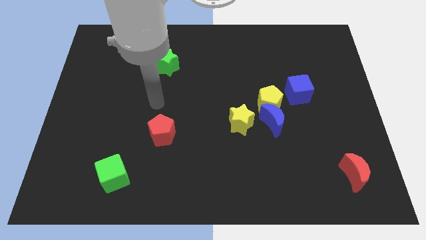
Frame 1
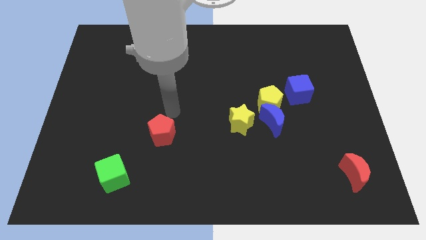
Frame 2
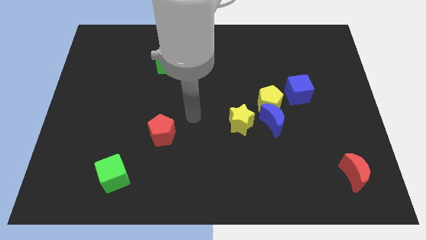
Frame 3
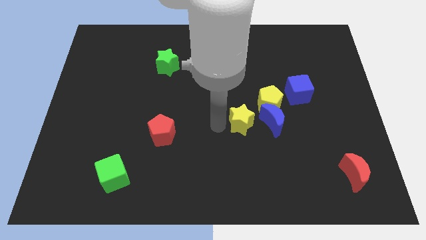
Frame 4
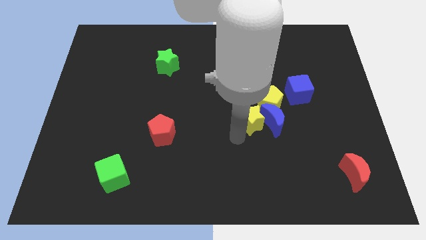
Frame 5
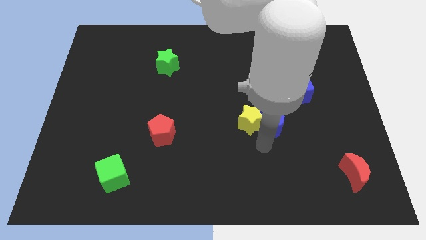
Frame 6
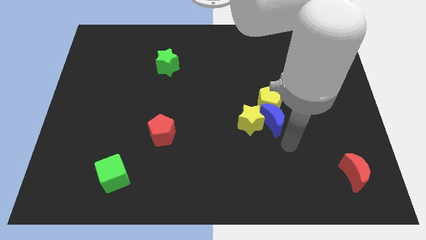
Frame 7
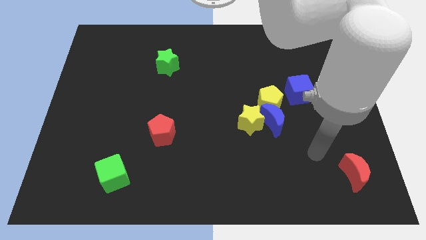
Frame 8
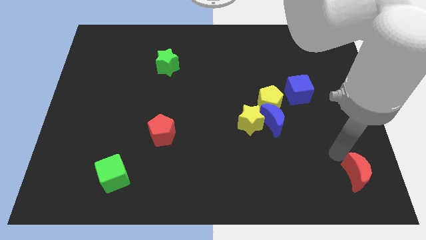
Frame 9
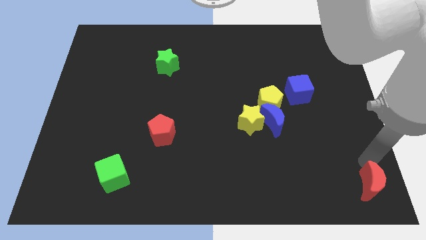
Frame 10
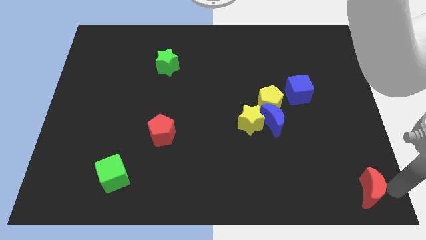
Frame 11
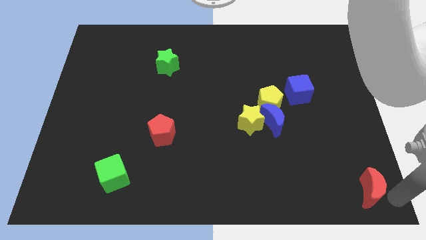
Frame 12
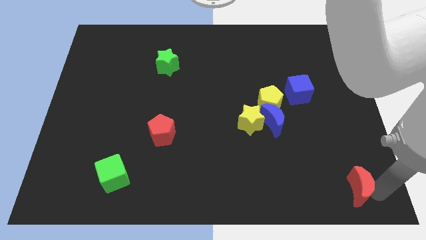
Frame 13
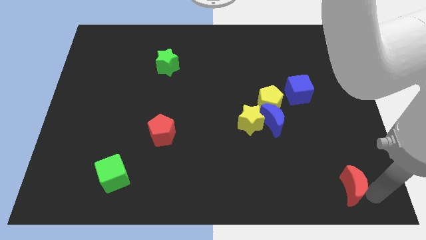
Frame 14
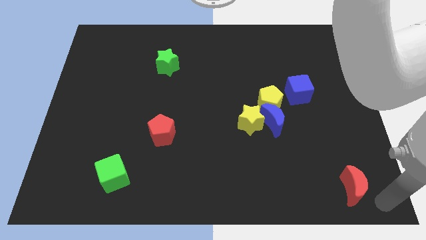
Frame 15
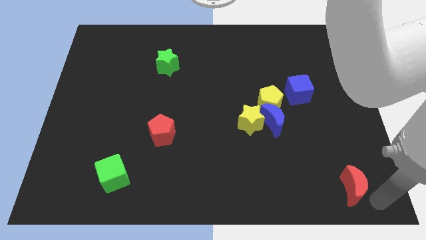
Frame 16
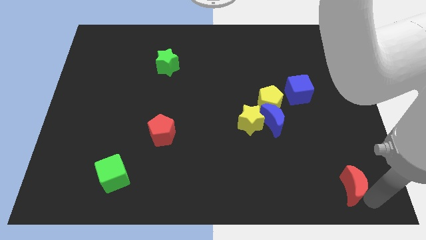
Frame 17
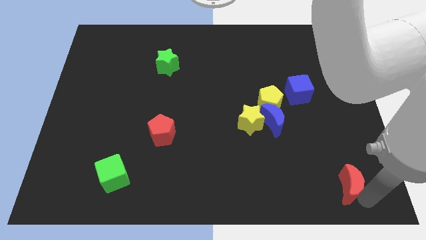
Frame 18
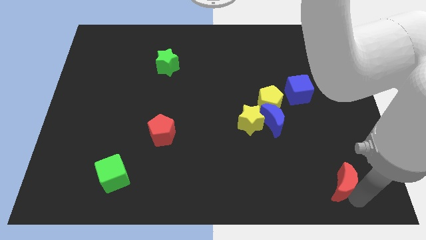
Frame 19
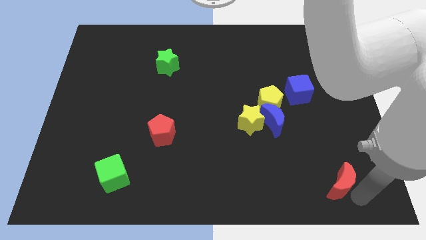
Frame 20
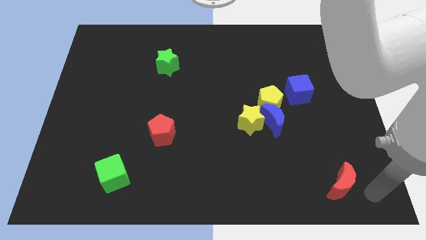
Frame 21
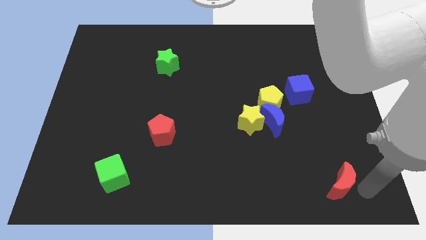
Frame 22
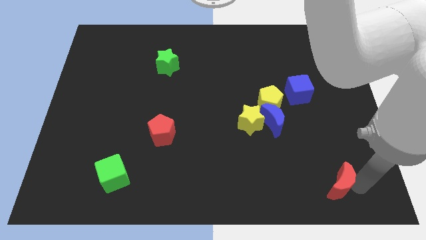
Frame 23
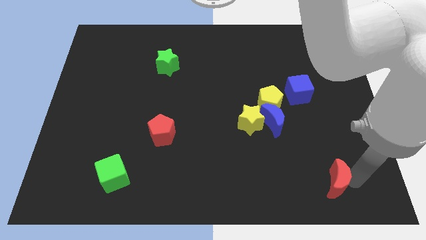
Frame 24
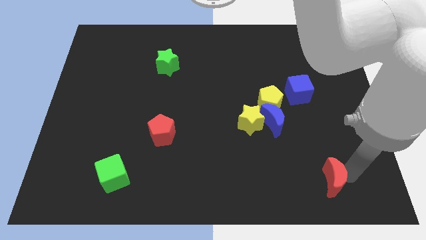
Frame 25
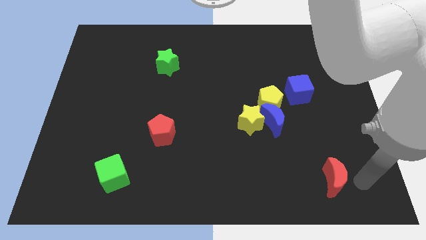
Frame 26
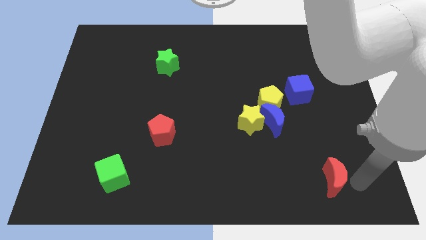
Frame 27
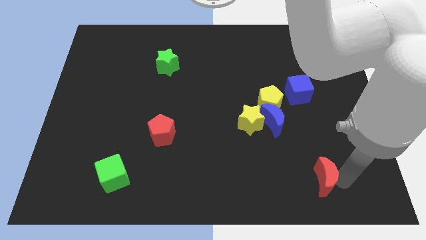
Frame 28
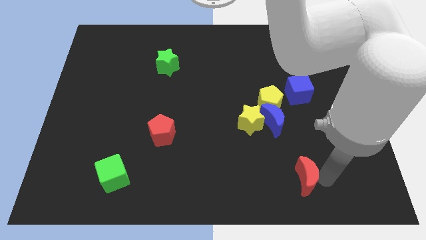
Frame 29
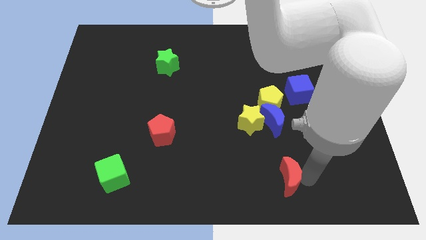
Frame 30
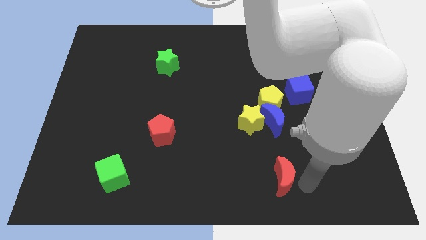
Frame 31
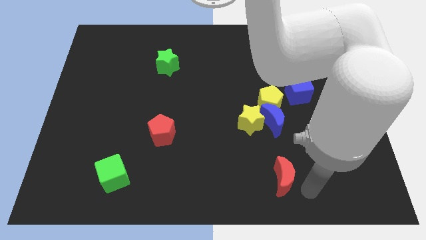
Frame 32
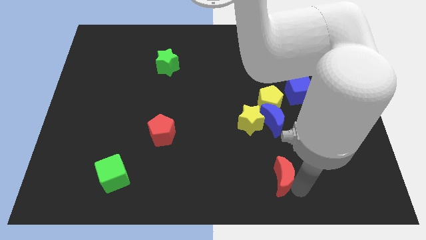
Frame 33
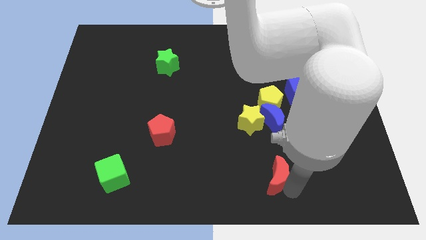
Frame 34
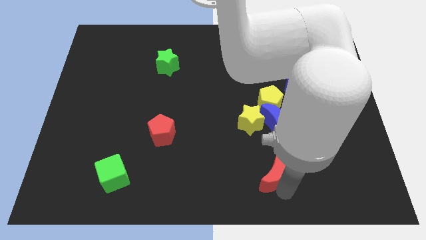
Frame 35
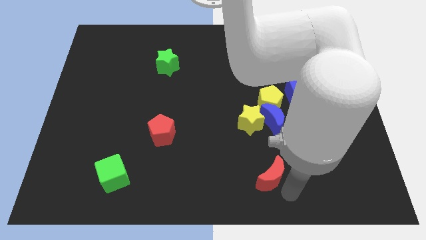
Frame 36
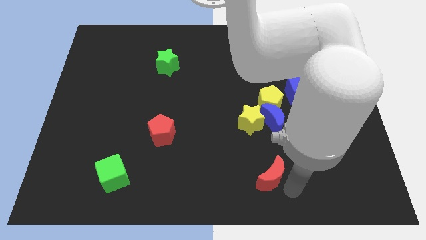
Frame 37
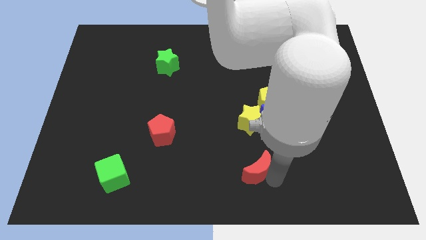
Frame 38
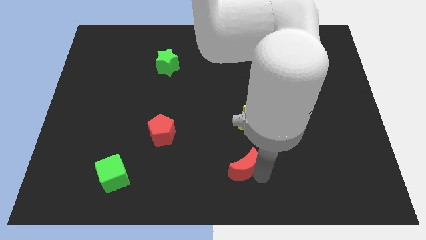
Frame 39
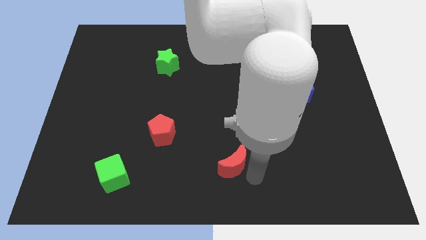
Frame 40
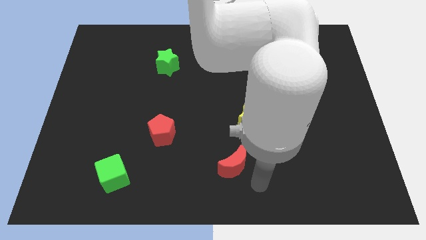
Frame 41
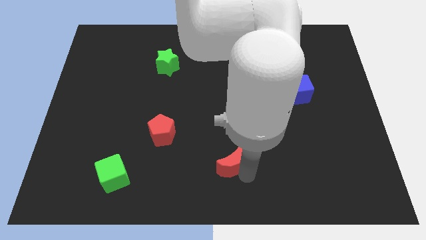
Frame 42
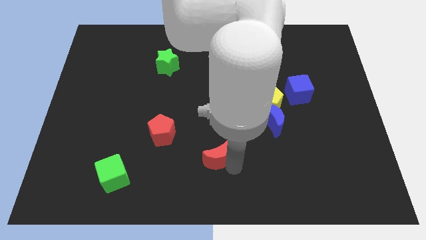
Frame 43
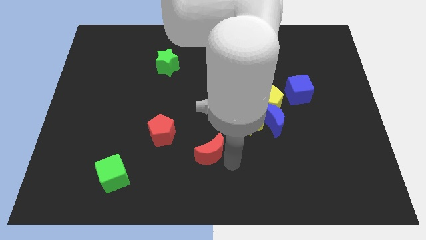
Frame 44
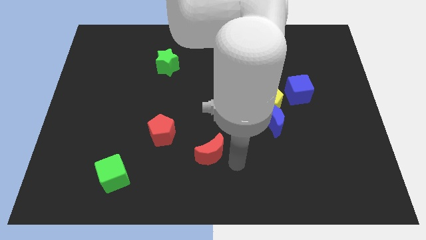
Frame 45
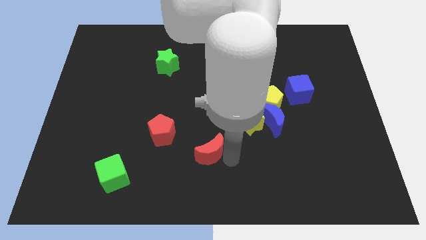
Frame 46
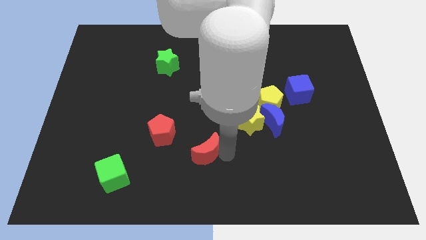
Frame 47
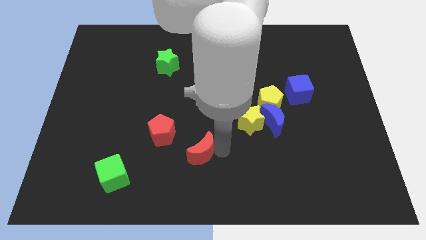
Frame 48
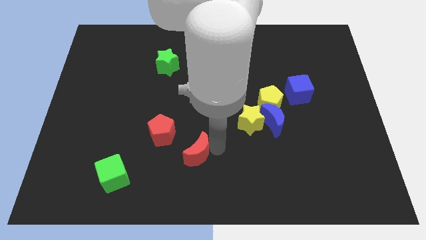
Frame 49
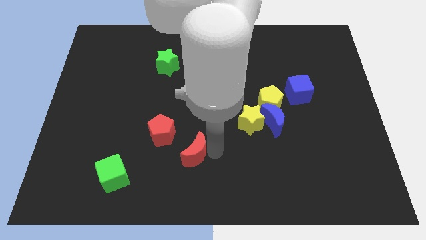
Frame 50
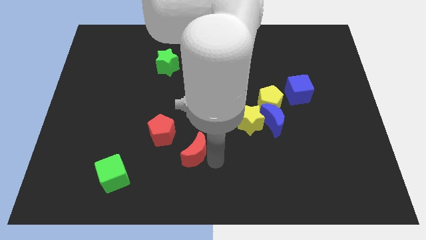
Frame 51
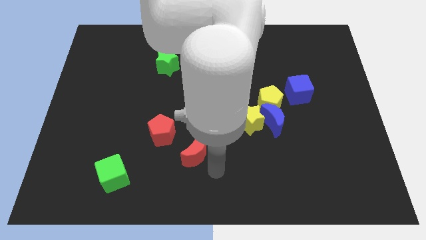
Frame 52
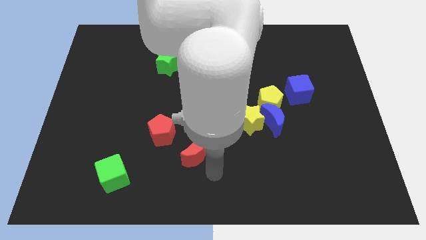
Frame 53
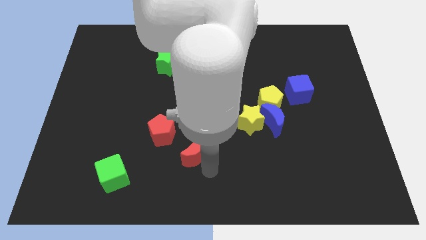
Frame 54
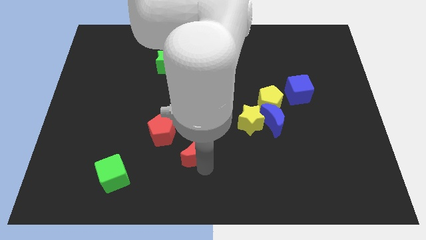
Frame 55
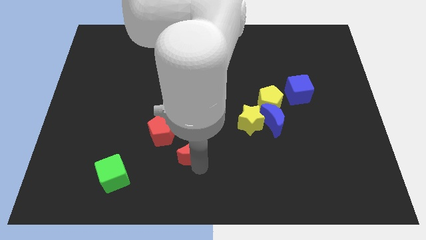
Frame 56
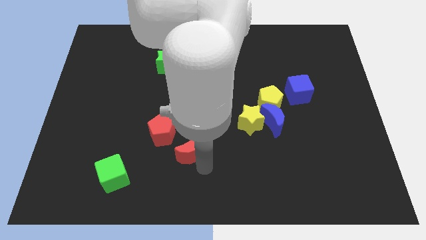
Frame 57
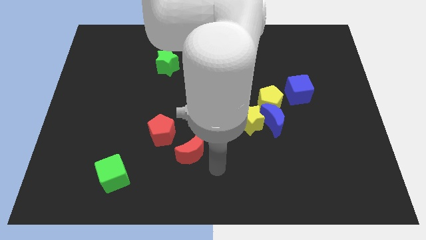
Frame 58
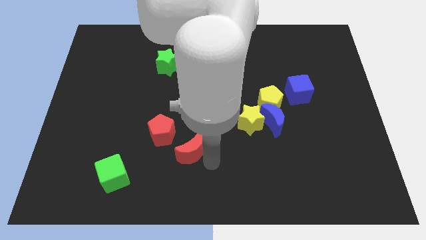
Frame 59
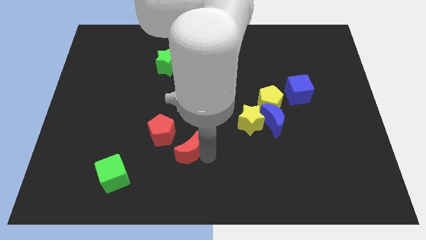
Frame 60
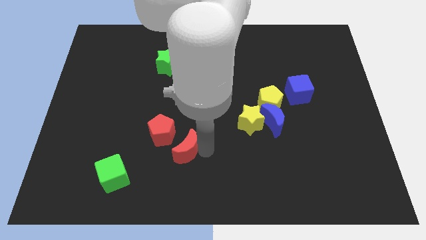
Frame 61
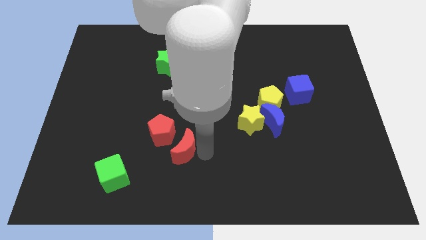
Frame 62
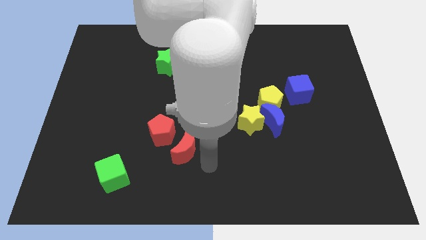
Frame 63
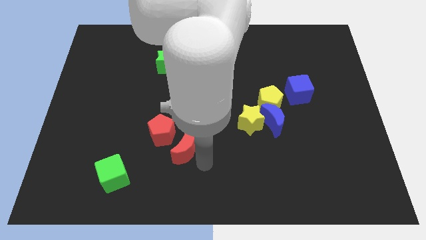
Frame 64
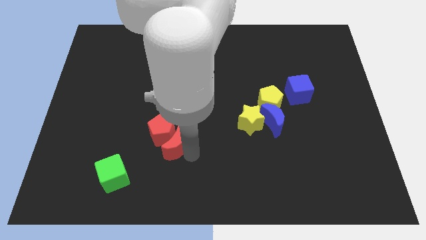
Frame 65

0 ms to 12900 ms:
push the red moon to the red pentagon

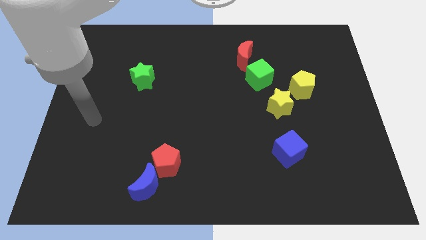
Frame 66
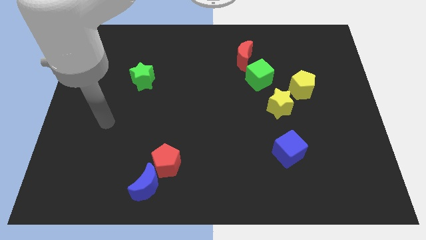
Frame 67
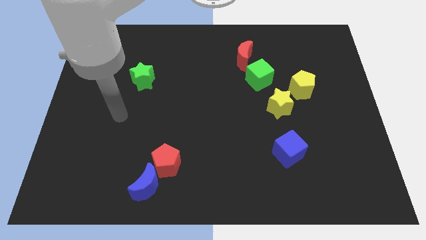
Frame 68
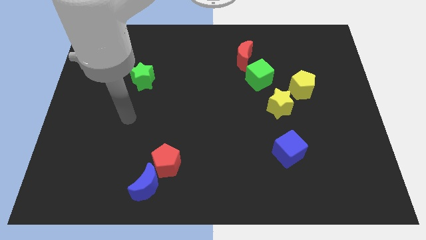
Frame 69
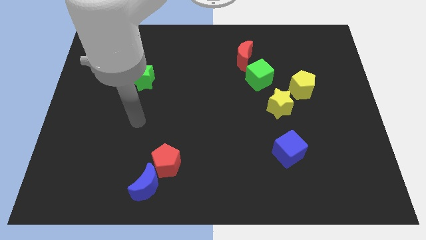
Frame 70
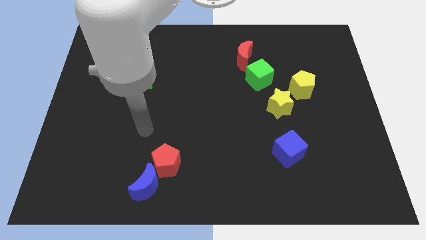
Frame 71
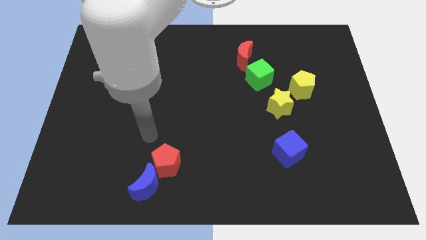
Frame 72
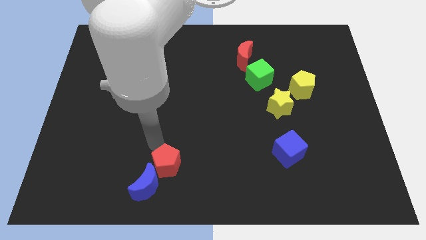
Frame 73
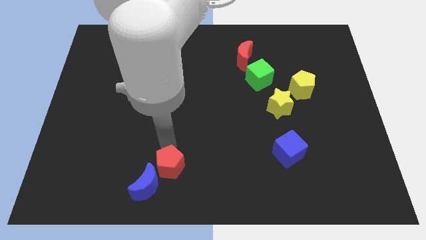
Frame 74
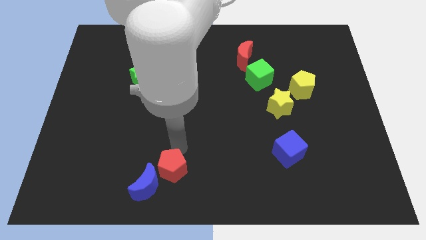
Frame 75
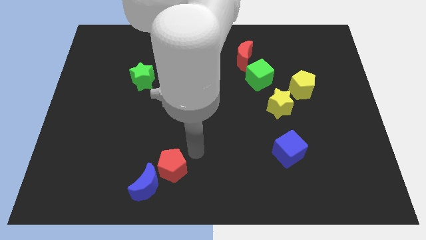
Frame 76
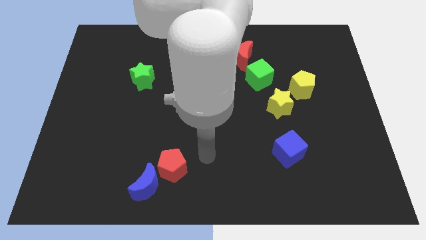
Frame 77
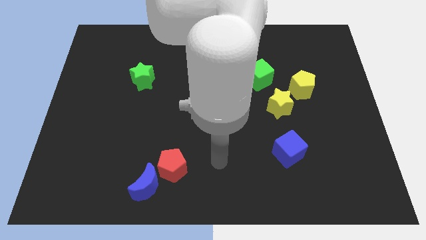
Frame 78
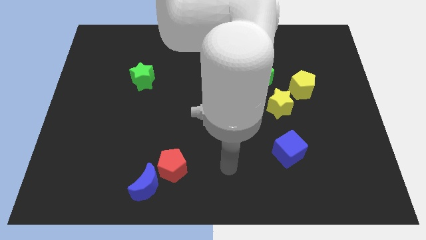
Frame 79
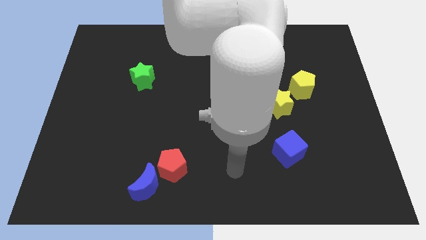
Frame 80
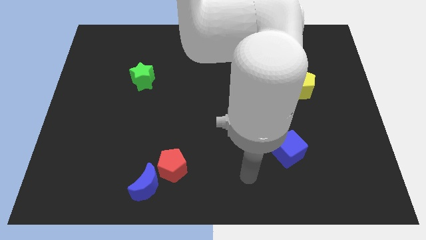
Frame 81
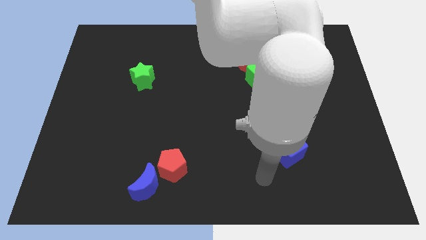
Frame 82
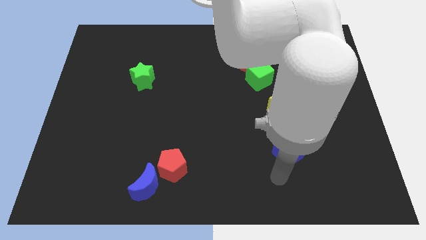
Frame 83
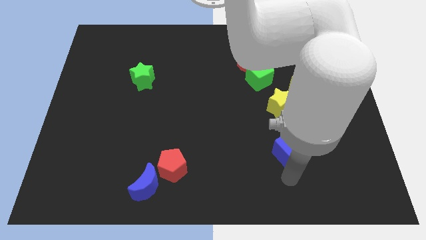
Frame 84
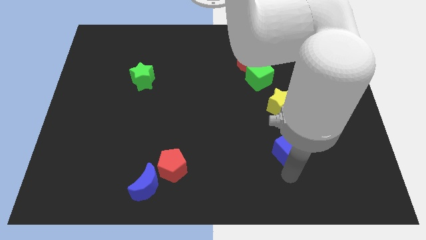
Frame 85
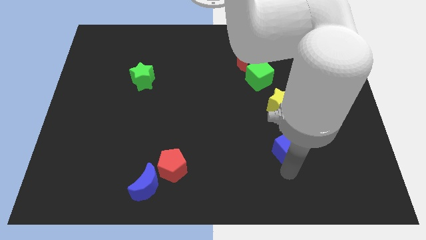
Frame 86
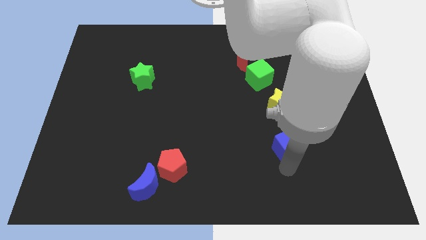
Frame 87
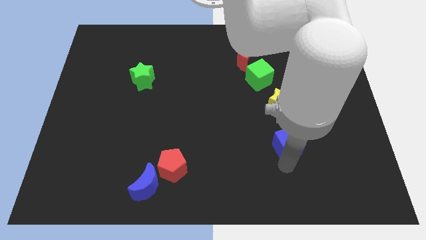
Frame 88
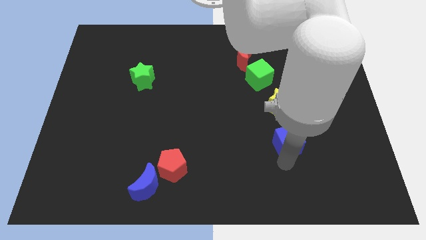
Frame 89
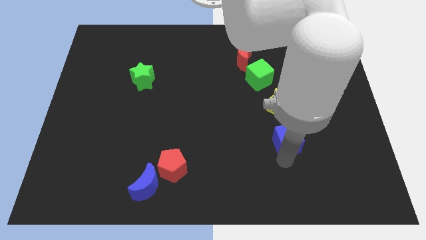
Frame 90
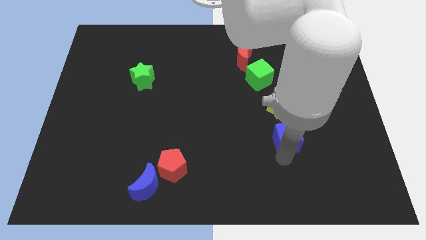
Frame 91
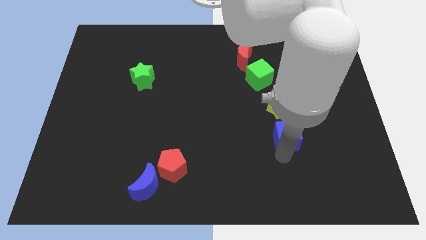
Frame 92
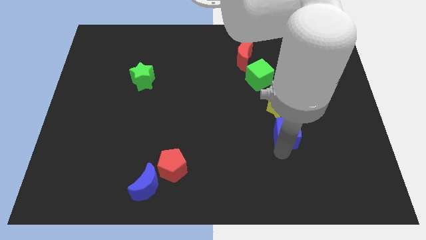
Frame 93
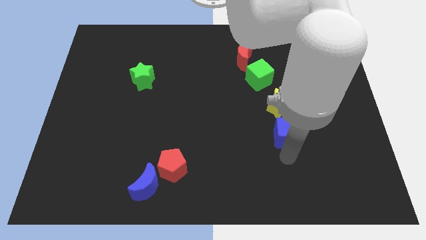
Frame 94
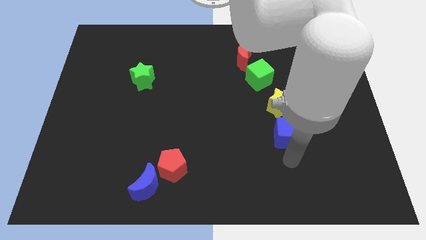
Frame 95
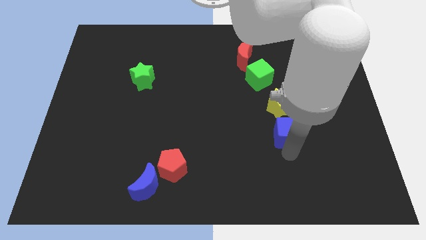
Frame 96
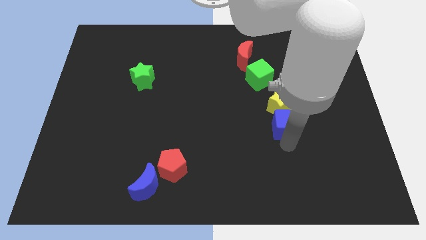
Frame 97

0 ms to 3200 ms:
push the blue cube towards the yellow star
